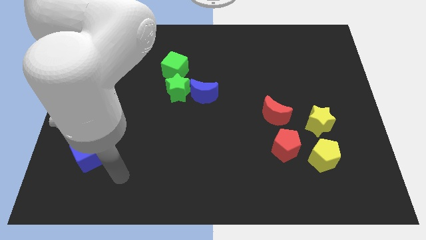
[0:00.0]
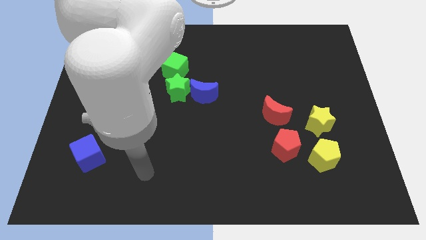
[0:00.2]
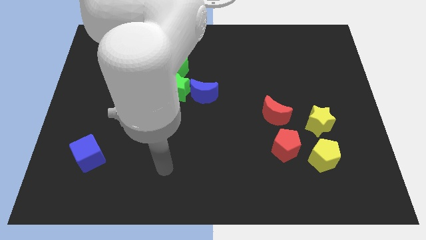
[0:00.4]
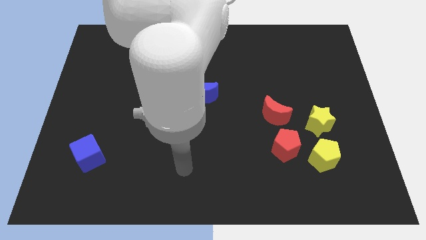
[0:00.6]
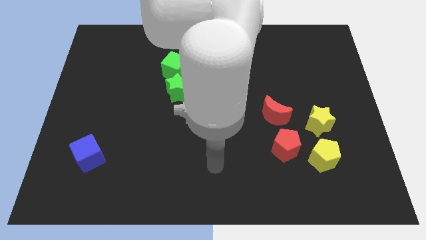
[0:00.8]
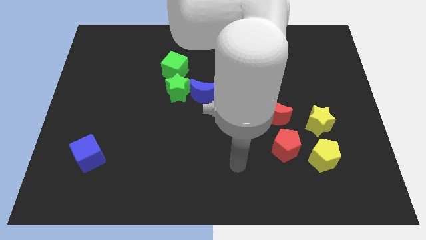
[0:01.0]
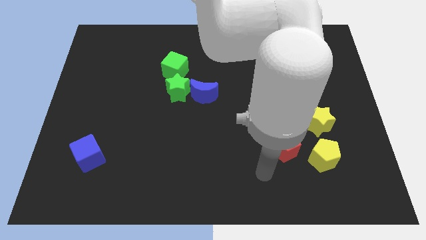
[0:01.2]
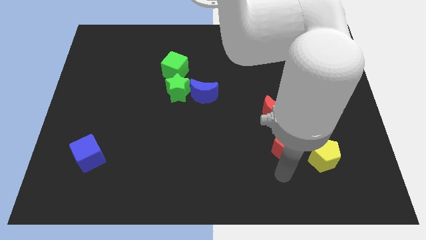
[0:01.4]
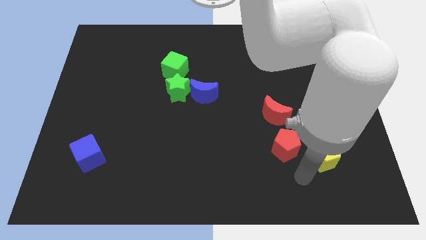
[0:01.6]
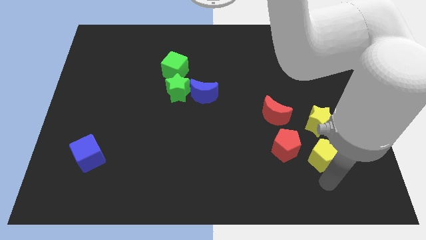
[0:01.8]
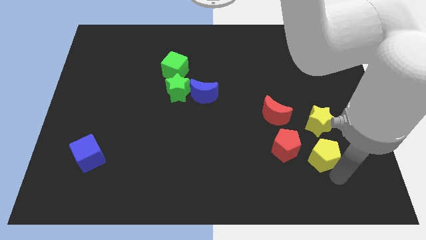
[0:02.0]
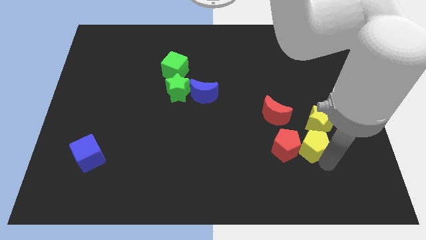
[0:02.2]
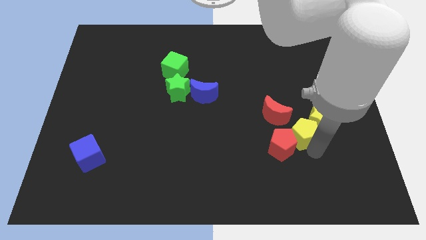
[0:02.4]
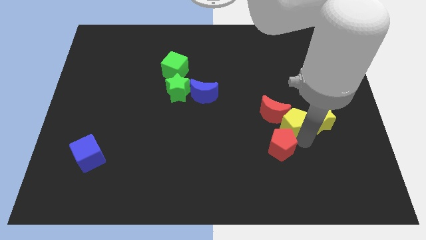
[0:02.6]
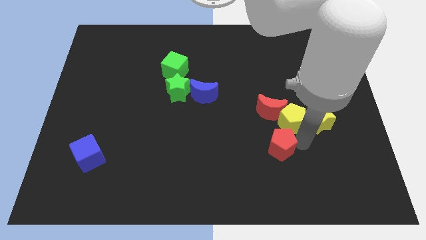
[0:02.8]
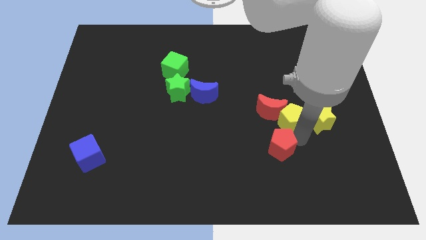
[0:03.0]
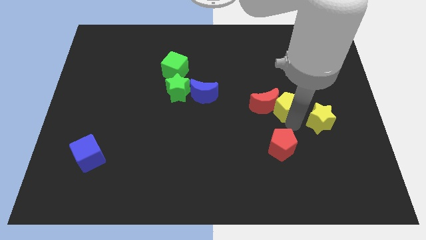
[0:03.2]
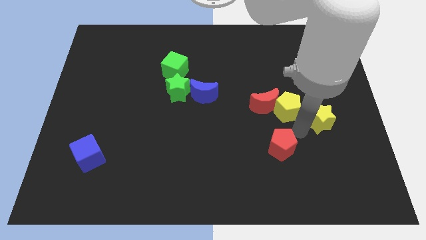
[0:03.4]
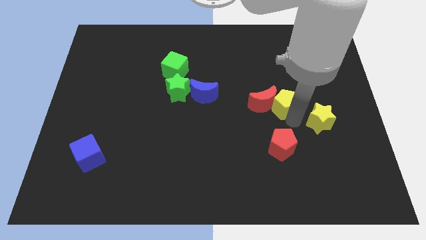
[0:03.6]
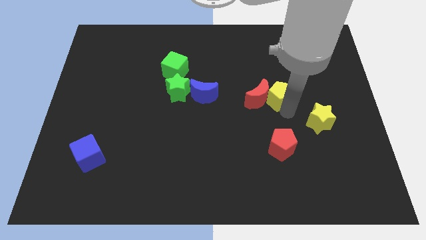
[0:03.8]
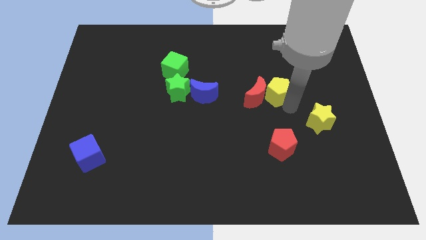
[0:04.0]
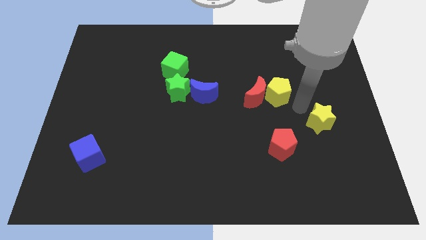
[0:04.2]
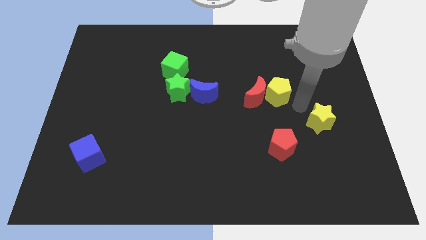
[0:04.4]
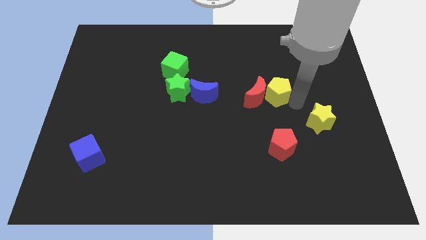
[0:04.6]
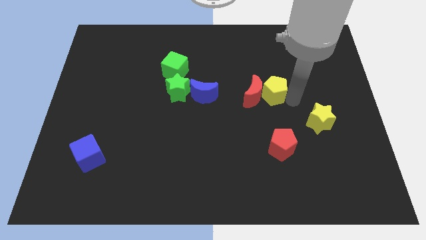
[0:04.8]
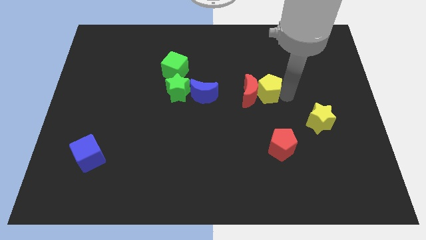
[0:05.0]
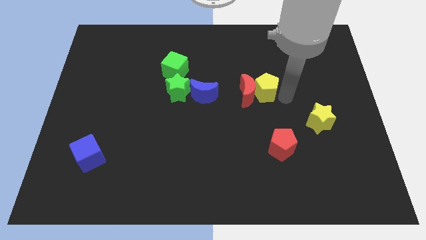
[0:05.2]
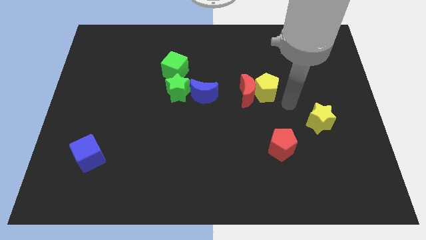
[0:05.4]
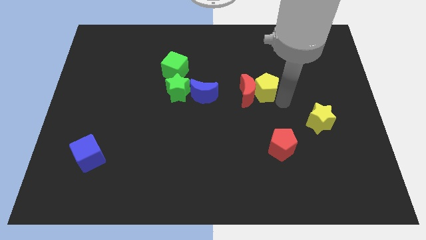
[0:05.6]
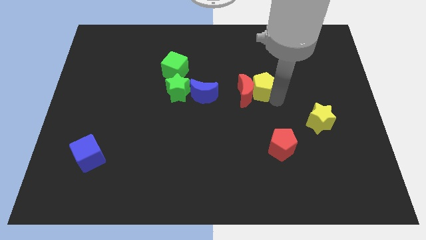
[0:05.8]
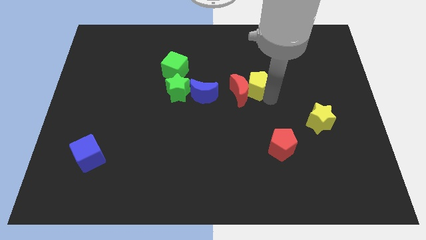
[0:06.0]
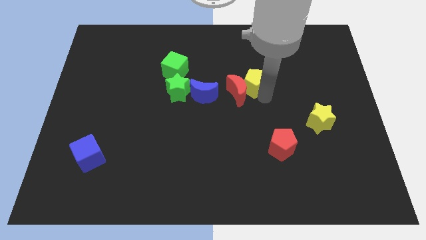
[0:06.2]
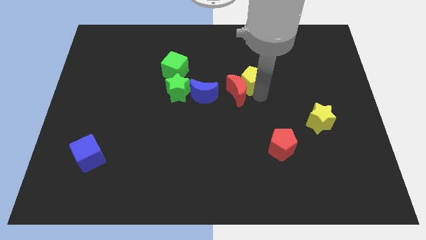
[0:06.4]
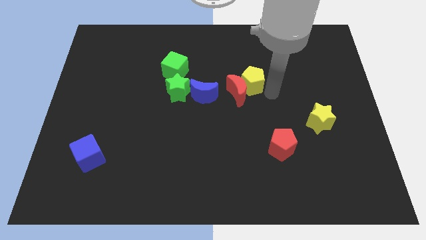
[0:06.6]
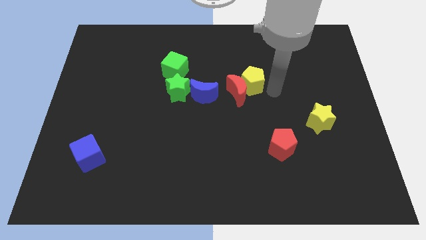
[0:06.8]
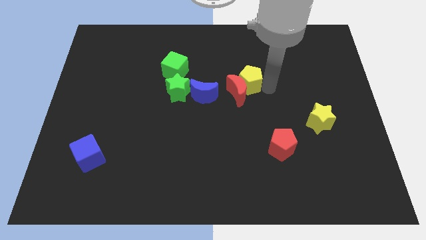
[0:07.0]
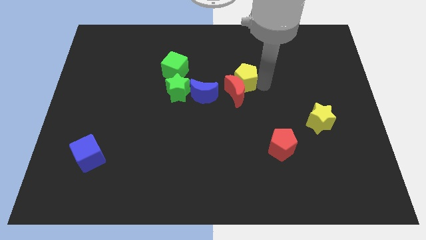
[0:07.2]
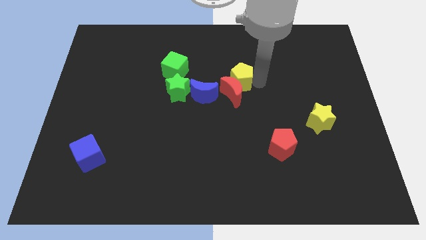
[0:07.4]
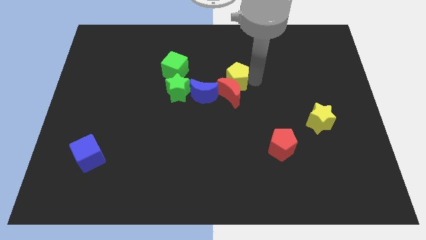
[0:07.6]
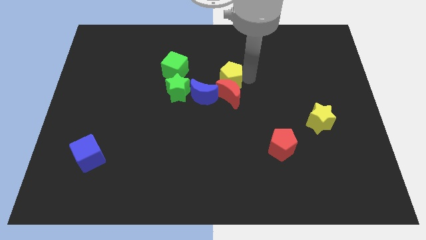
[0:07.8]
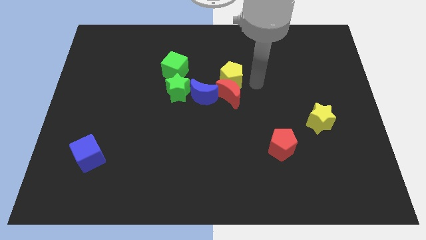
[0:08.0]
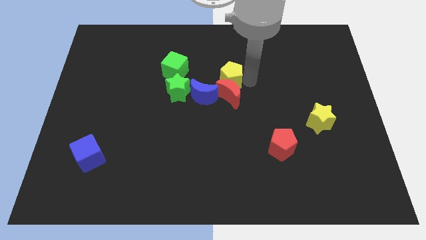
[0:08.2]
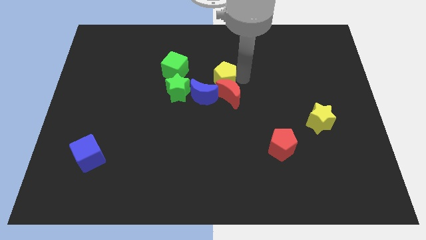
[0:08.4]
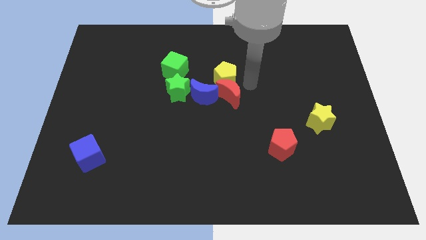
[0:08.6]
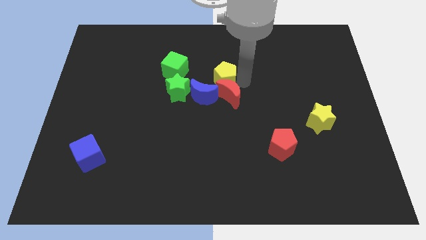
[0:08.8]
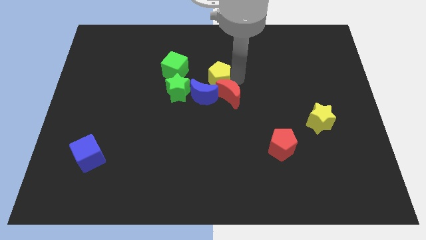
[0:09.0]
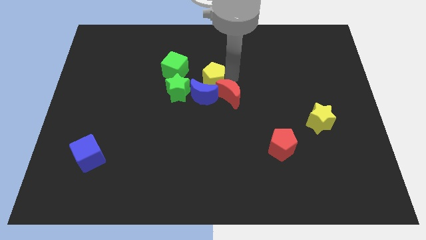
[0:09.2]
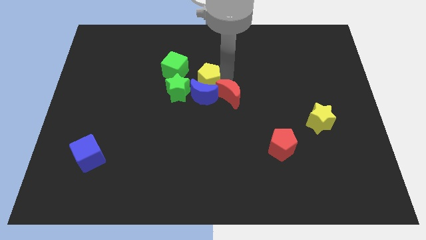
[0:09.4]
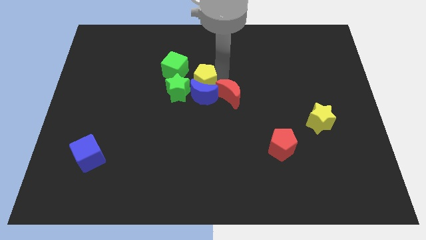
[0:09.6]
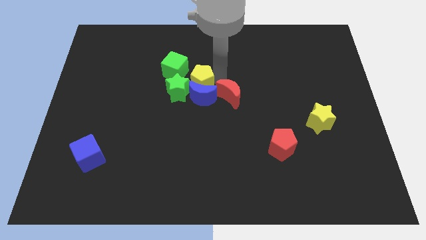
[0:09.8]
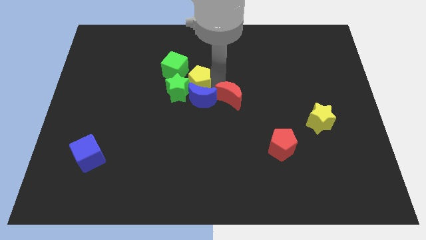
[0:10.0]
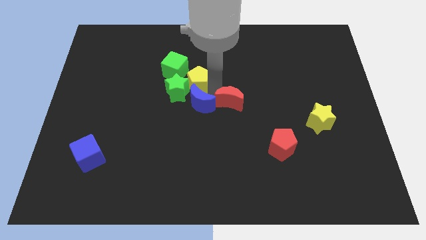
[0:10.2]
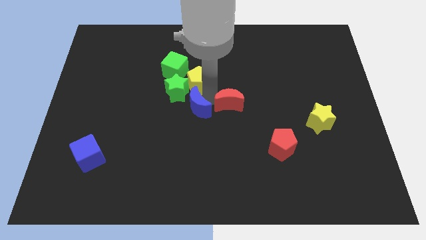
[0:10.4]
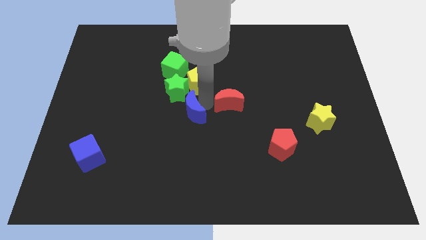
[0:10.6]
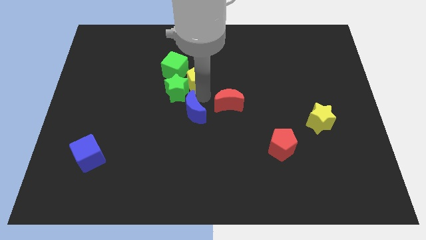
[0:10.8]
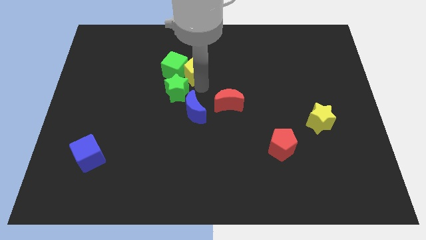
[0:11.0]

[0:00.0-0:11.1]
push the yellow pentagon next to the green cube

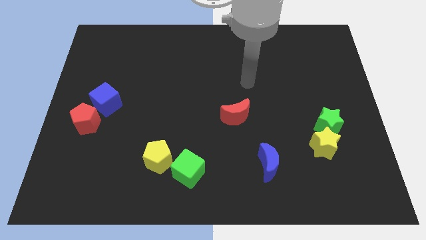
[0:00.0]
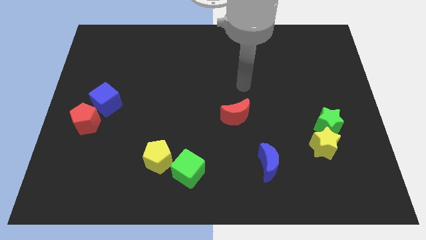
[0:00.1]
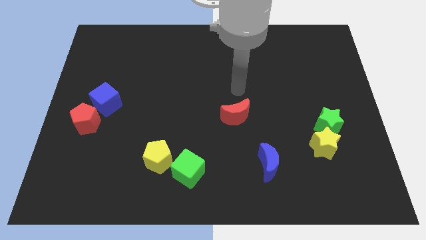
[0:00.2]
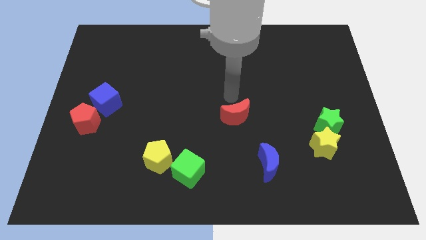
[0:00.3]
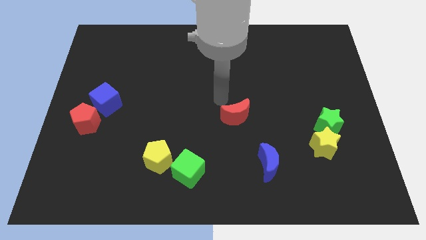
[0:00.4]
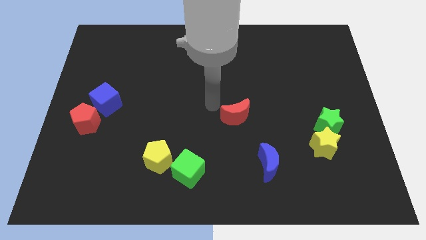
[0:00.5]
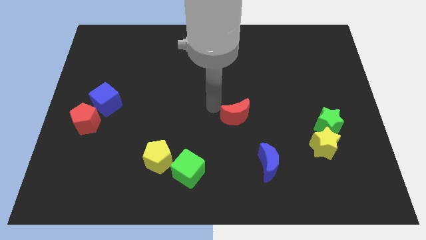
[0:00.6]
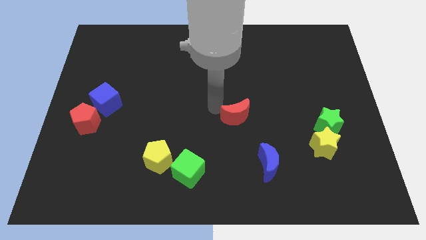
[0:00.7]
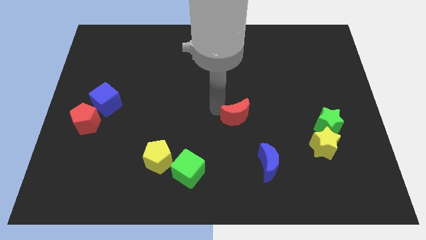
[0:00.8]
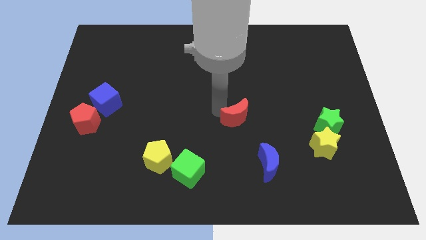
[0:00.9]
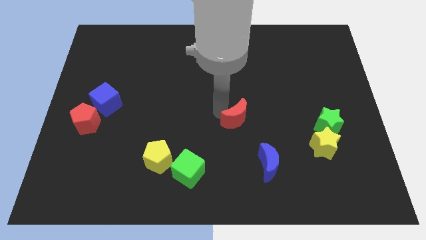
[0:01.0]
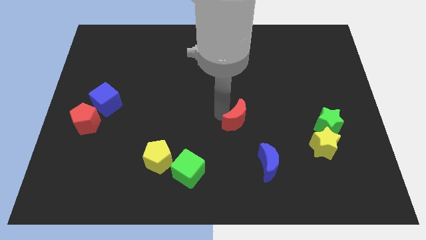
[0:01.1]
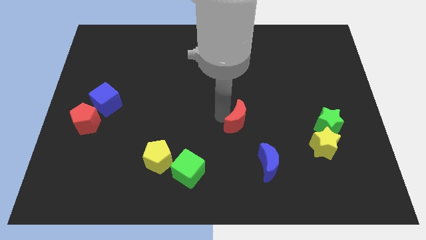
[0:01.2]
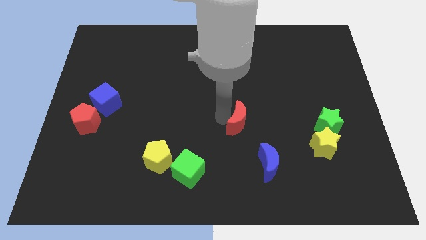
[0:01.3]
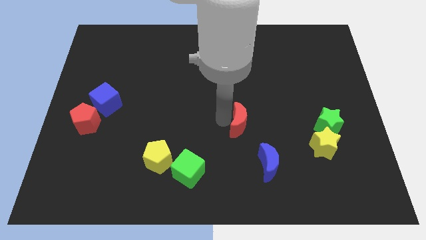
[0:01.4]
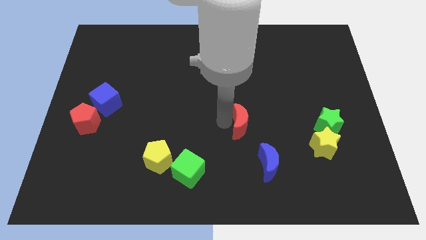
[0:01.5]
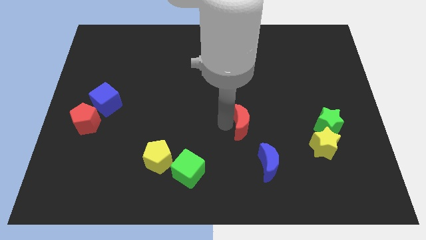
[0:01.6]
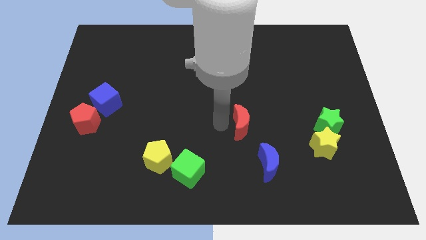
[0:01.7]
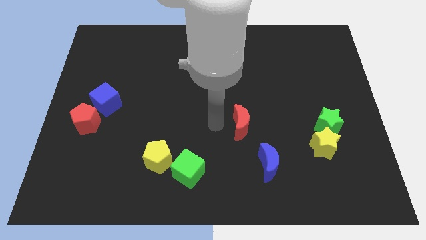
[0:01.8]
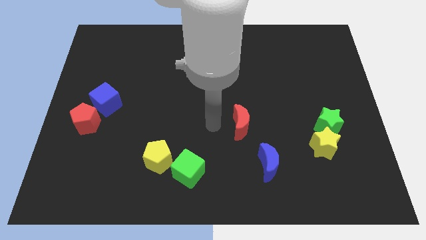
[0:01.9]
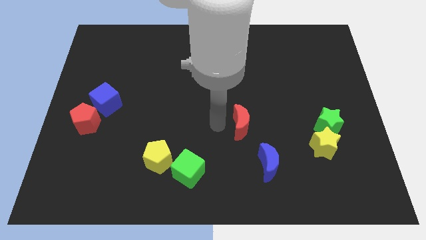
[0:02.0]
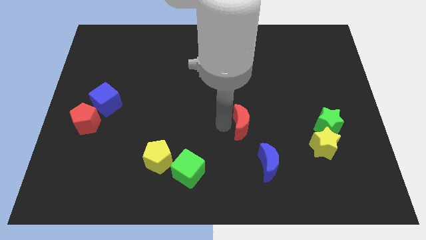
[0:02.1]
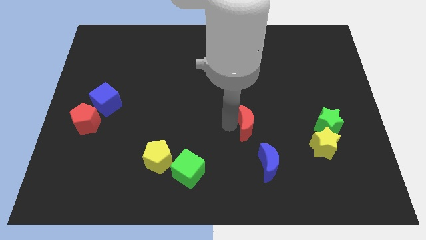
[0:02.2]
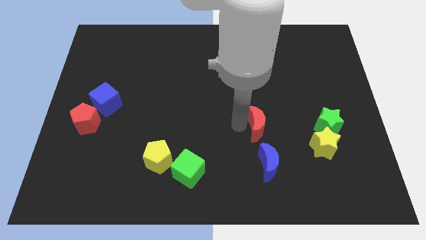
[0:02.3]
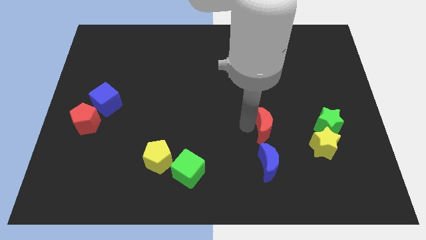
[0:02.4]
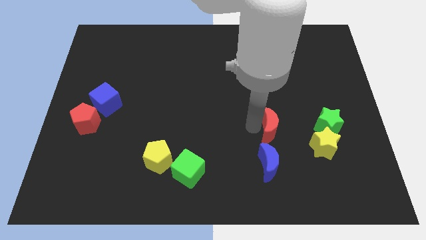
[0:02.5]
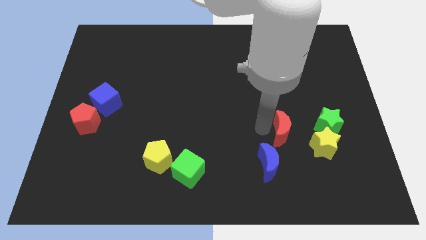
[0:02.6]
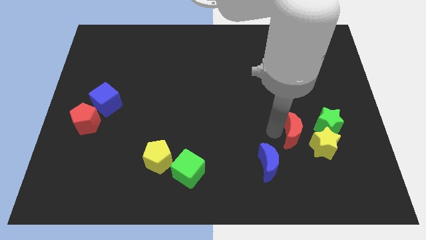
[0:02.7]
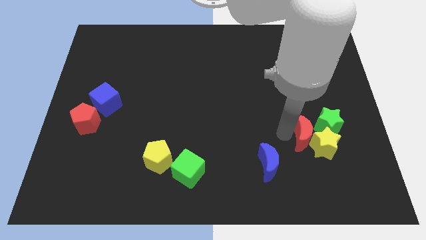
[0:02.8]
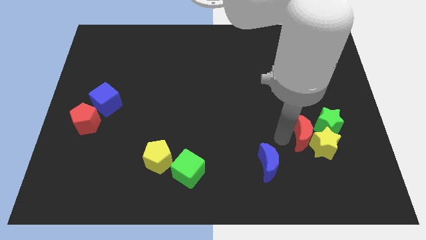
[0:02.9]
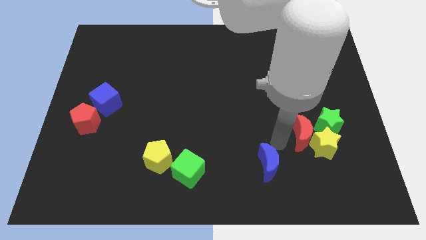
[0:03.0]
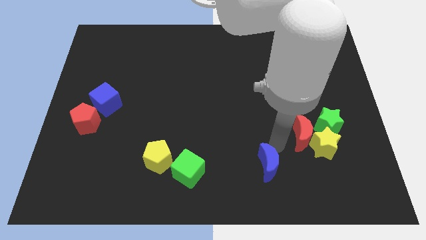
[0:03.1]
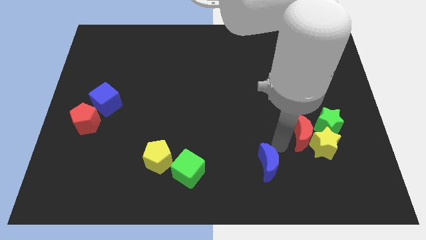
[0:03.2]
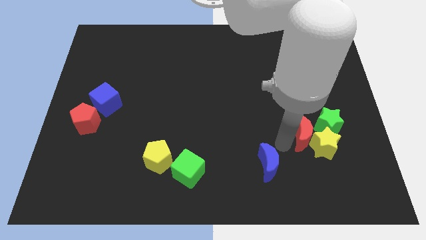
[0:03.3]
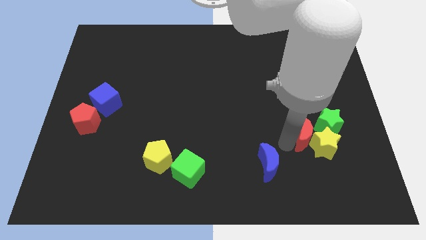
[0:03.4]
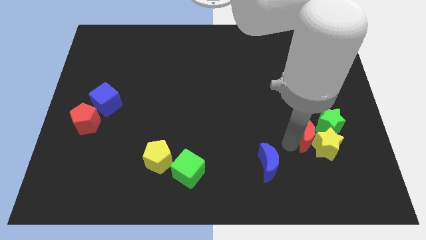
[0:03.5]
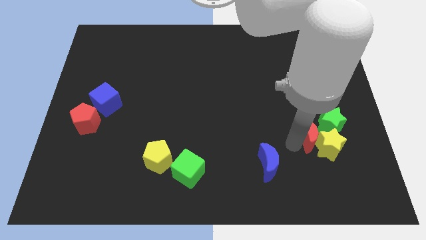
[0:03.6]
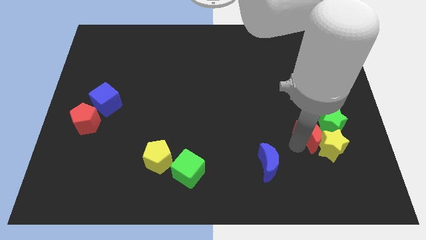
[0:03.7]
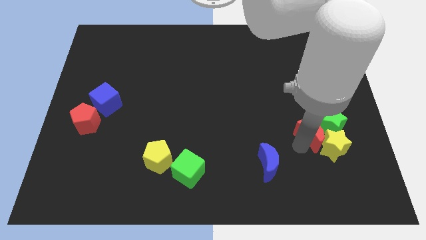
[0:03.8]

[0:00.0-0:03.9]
slide the red moon towards the green star
